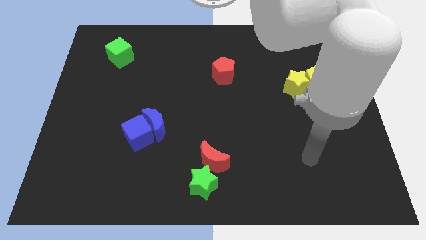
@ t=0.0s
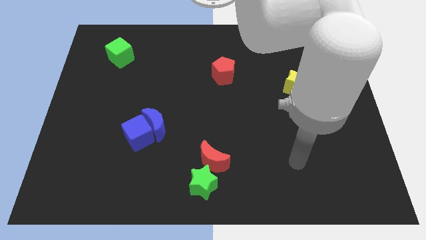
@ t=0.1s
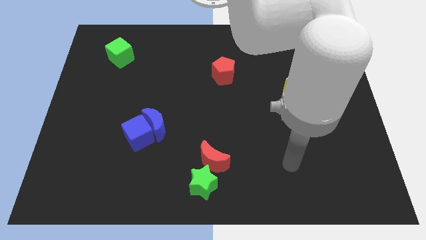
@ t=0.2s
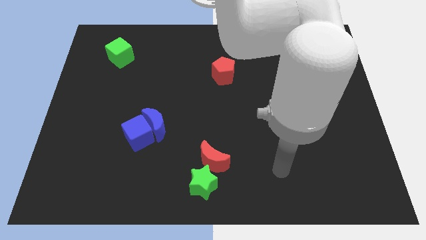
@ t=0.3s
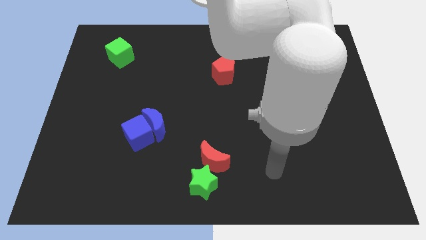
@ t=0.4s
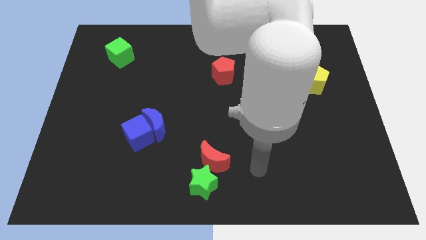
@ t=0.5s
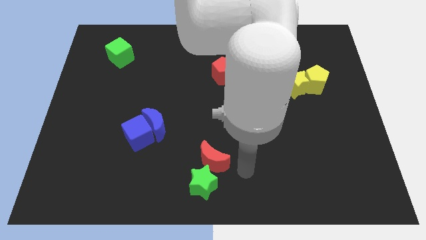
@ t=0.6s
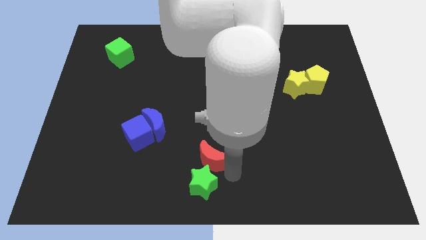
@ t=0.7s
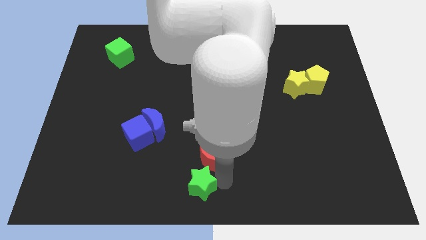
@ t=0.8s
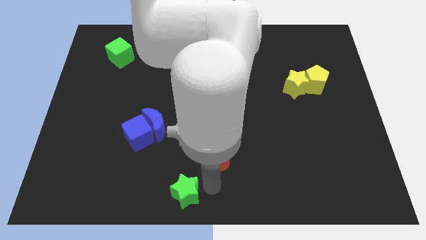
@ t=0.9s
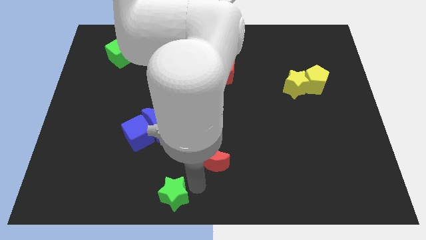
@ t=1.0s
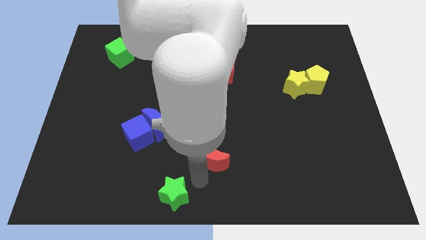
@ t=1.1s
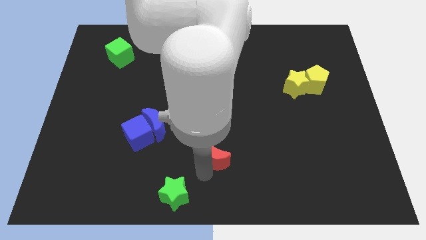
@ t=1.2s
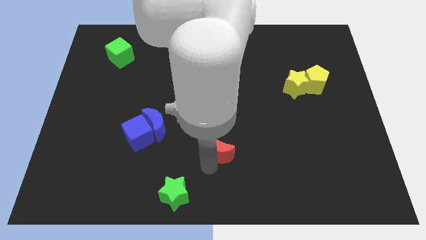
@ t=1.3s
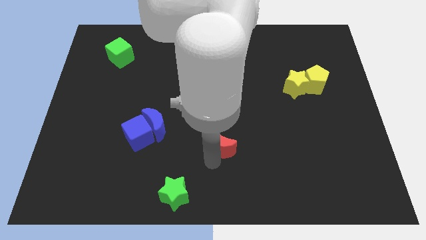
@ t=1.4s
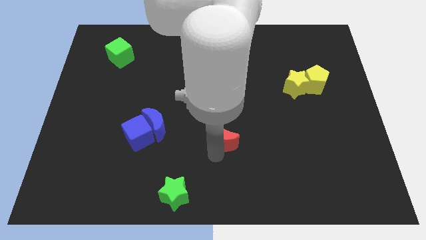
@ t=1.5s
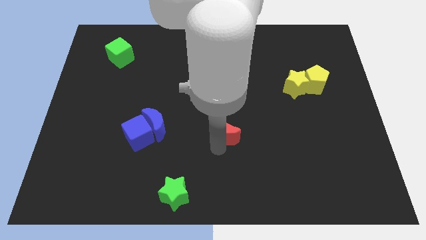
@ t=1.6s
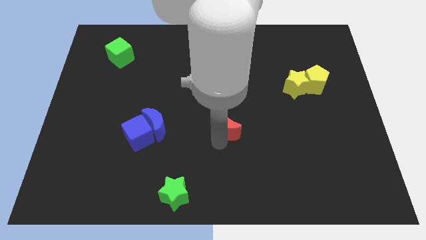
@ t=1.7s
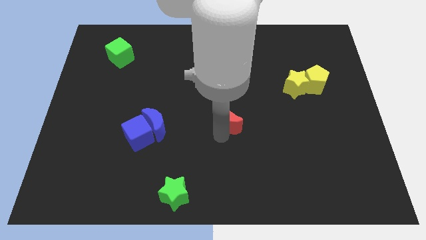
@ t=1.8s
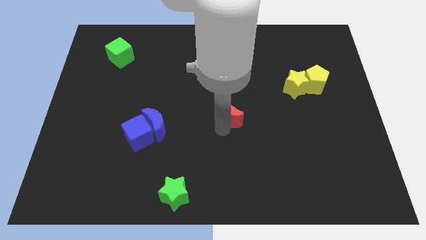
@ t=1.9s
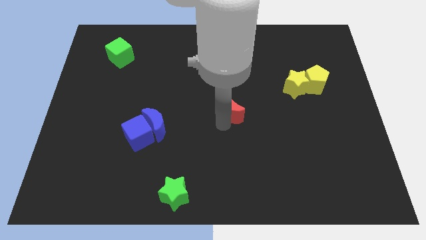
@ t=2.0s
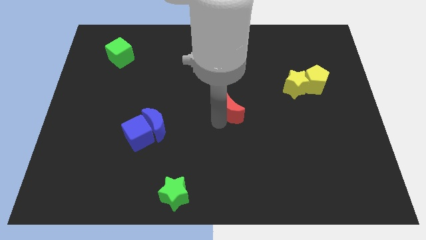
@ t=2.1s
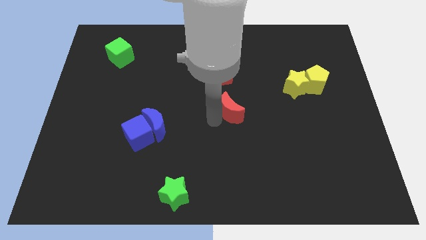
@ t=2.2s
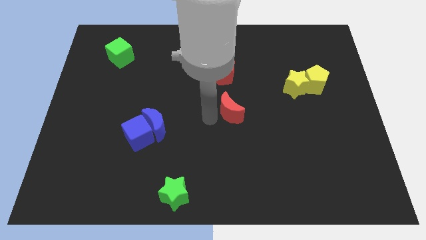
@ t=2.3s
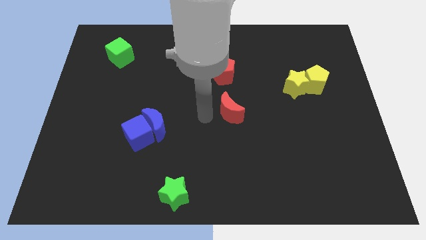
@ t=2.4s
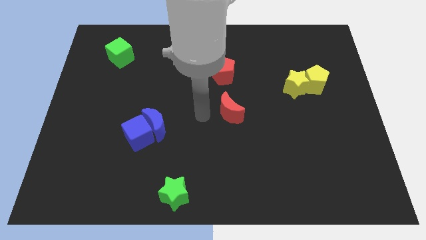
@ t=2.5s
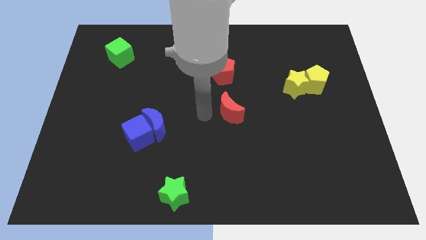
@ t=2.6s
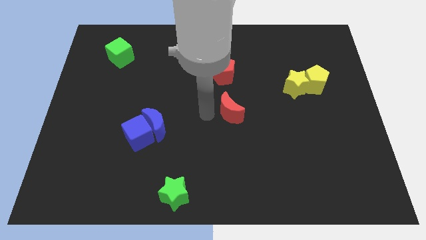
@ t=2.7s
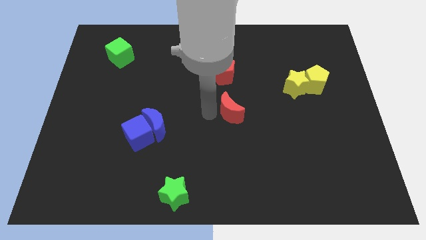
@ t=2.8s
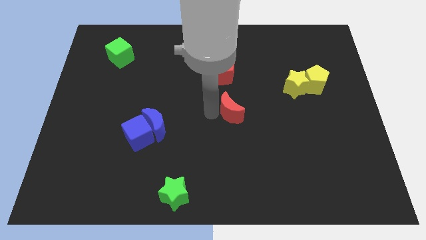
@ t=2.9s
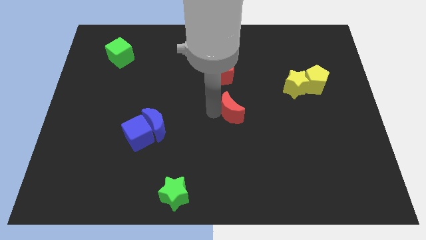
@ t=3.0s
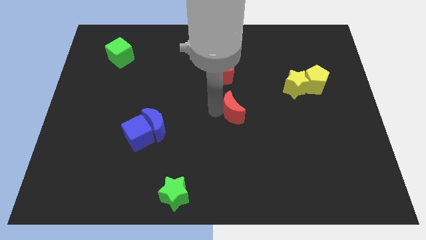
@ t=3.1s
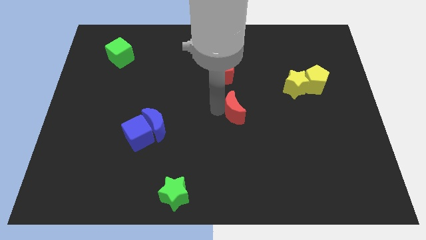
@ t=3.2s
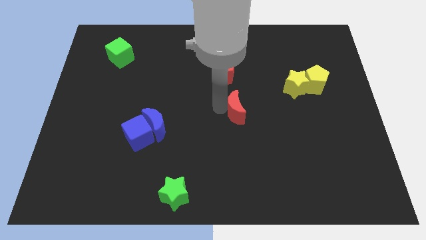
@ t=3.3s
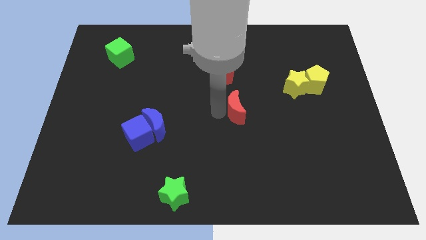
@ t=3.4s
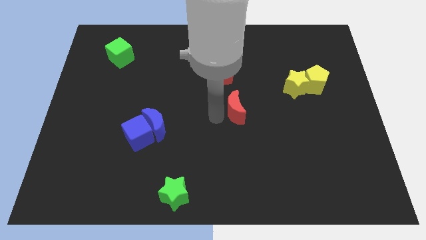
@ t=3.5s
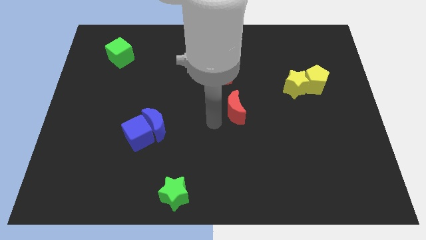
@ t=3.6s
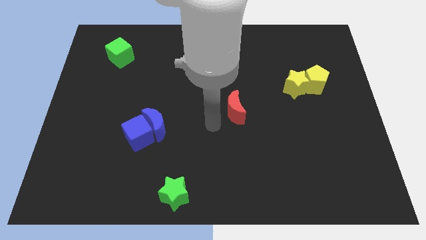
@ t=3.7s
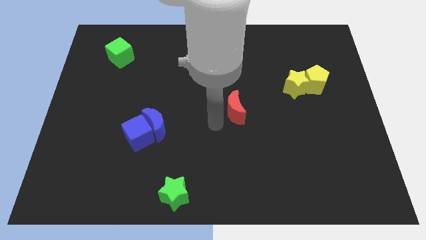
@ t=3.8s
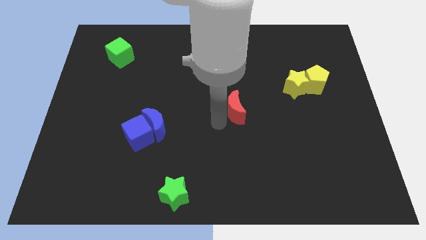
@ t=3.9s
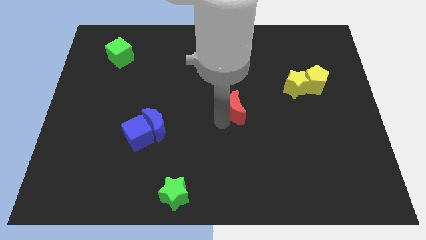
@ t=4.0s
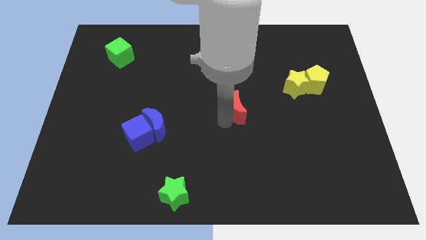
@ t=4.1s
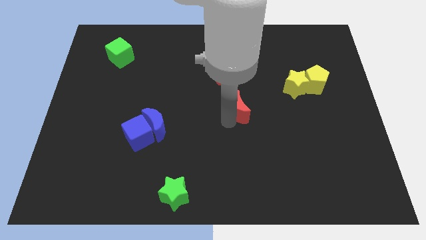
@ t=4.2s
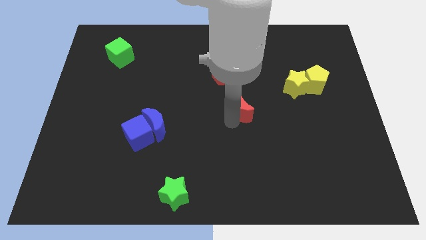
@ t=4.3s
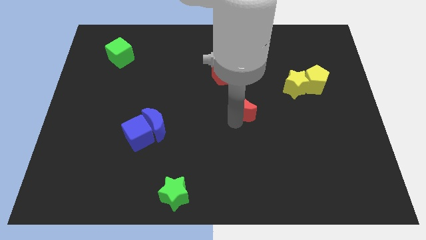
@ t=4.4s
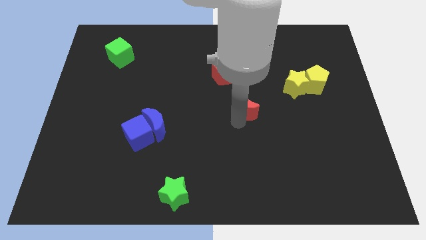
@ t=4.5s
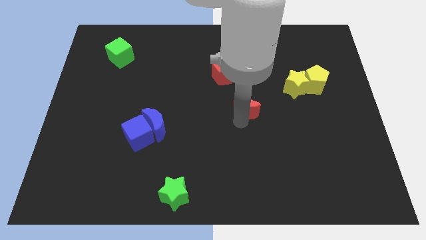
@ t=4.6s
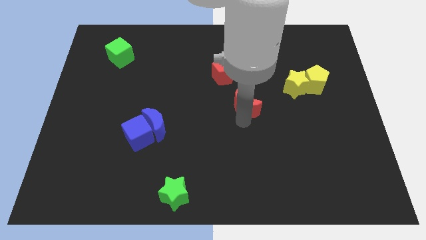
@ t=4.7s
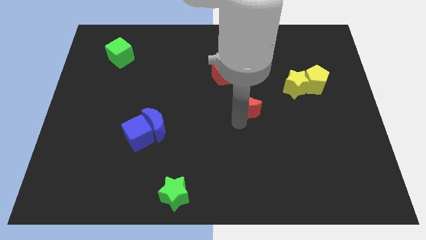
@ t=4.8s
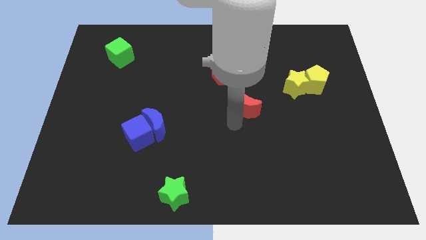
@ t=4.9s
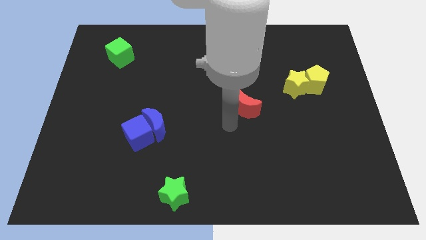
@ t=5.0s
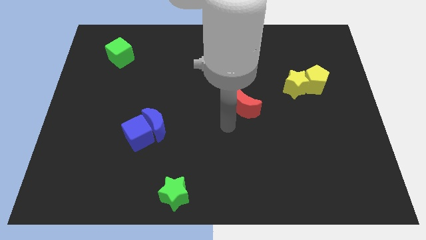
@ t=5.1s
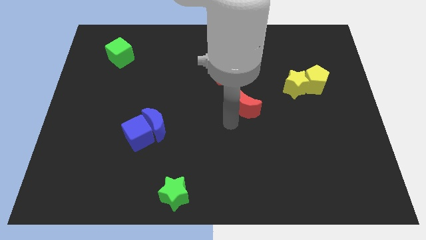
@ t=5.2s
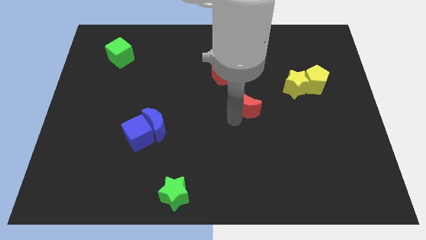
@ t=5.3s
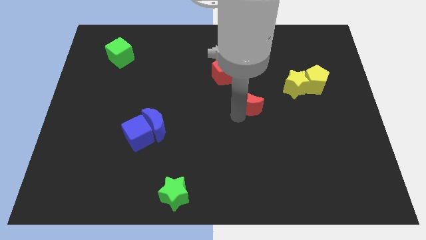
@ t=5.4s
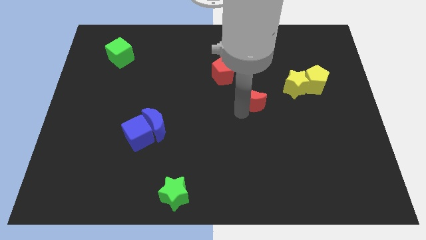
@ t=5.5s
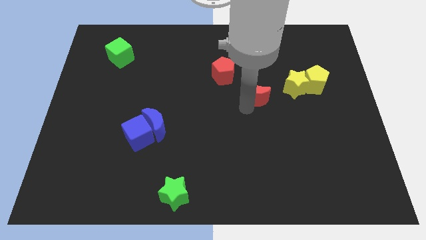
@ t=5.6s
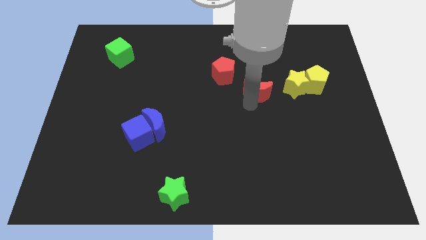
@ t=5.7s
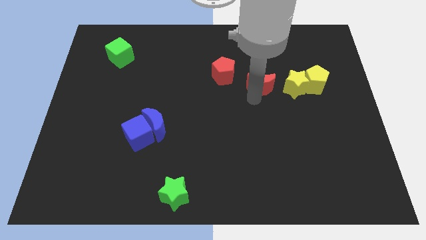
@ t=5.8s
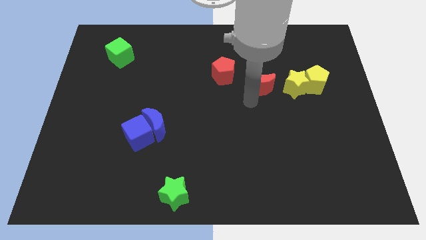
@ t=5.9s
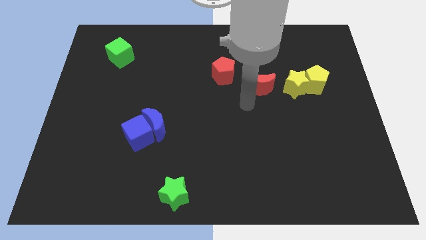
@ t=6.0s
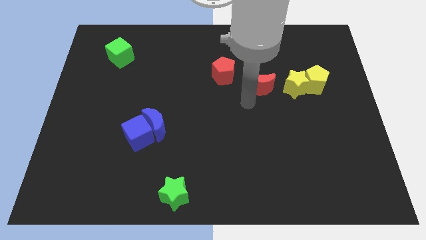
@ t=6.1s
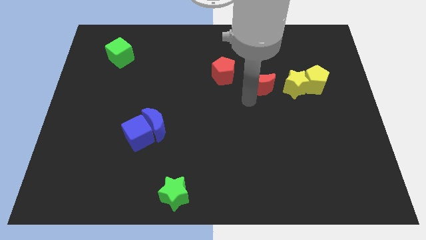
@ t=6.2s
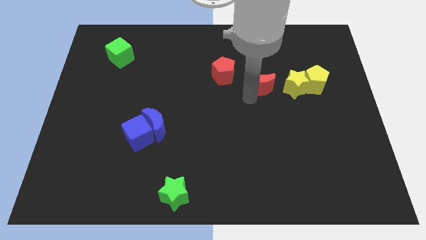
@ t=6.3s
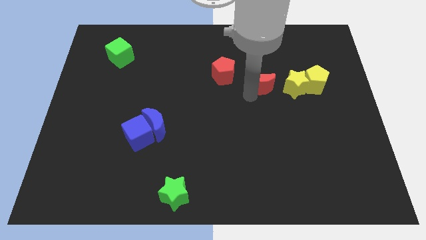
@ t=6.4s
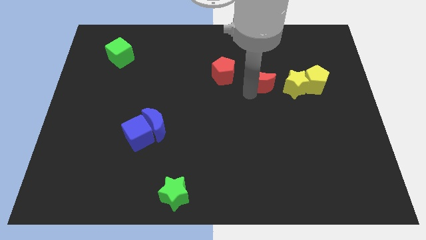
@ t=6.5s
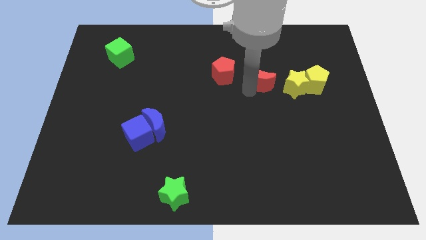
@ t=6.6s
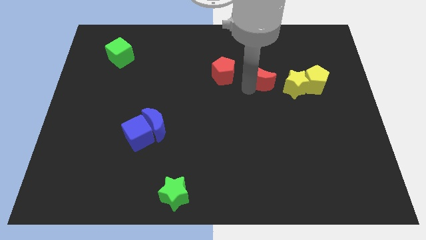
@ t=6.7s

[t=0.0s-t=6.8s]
push the red moon to the top left of the yellow star

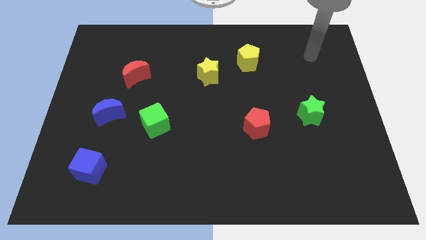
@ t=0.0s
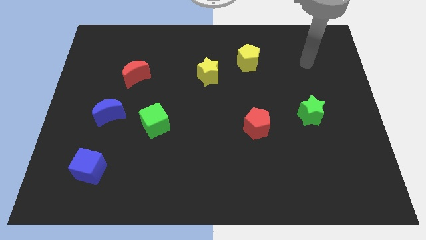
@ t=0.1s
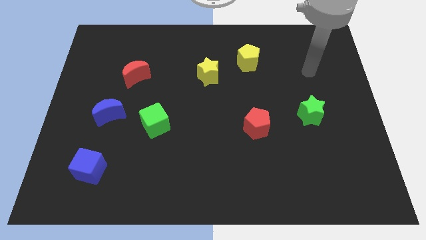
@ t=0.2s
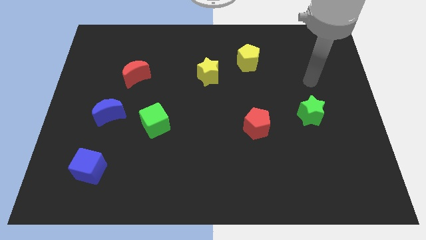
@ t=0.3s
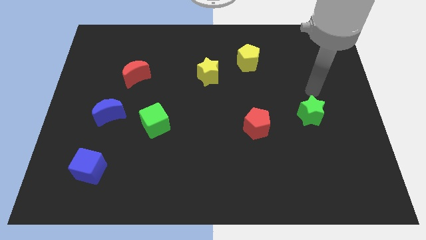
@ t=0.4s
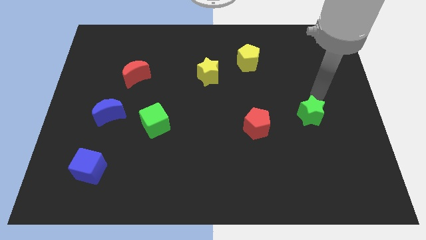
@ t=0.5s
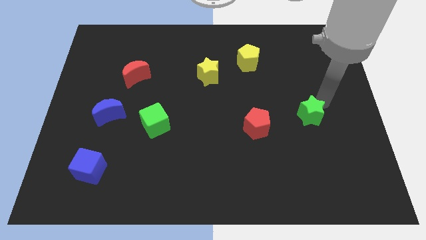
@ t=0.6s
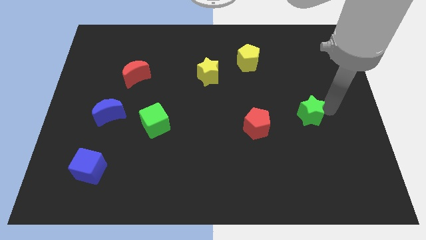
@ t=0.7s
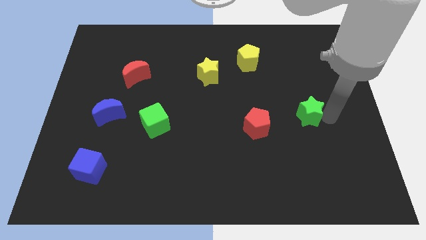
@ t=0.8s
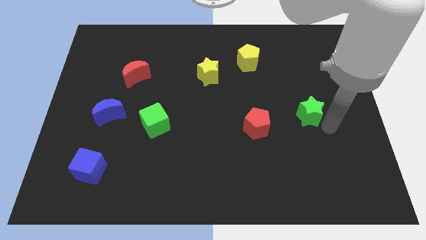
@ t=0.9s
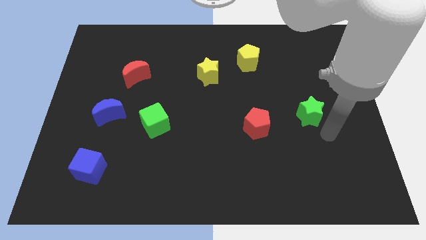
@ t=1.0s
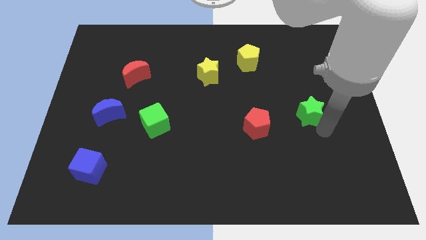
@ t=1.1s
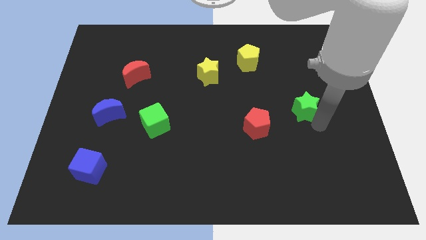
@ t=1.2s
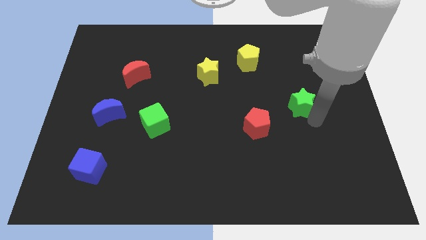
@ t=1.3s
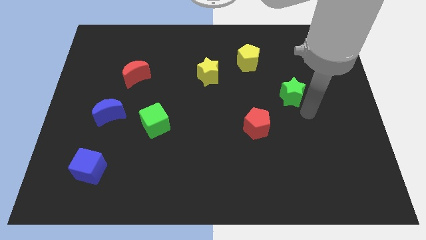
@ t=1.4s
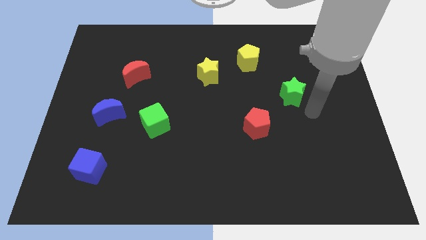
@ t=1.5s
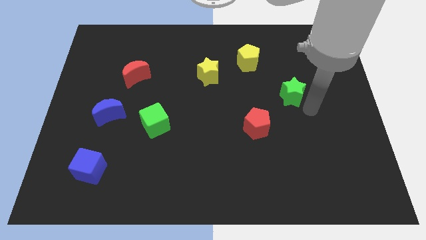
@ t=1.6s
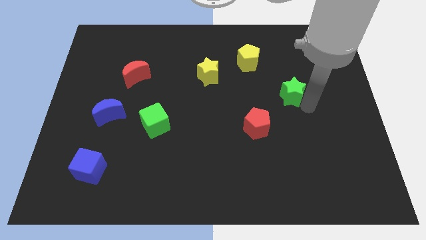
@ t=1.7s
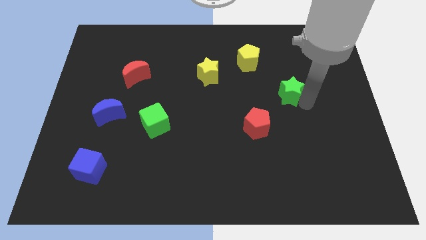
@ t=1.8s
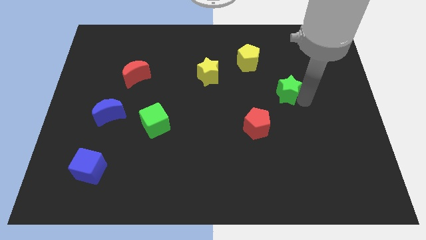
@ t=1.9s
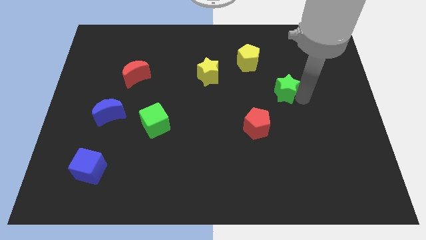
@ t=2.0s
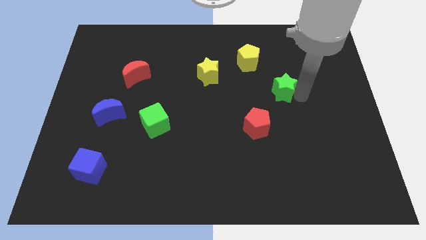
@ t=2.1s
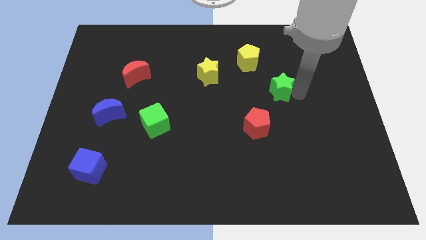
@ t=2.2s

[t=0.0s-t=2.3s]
slide the green star to the bottom right side of the yellow pentagon
